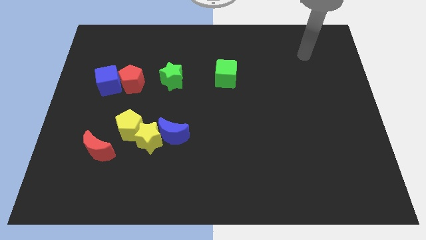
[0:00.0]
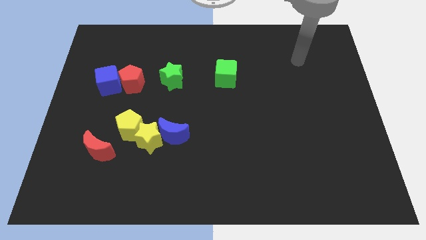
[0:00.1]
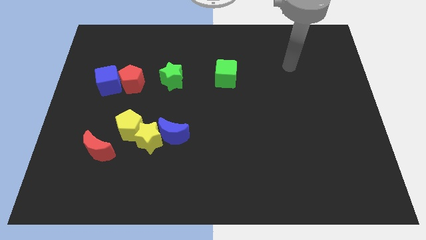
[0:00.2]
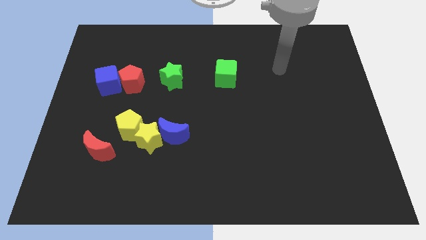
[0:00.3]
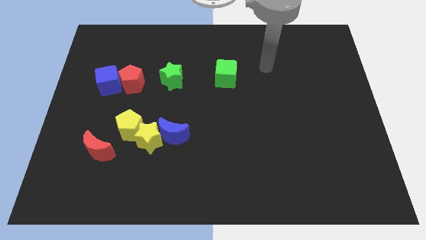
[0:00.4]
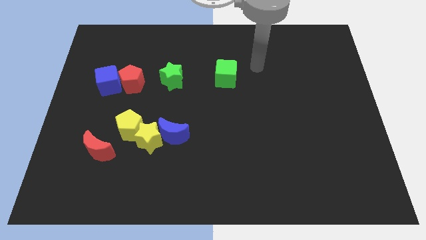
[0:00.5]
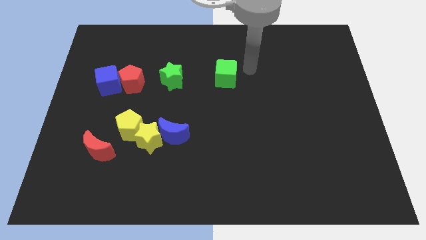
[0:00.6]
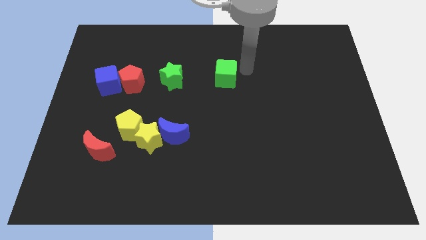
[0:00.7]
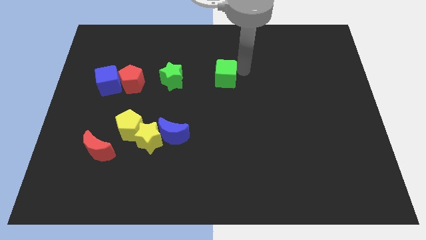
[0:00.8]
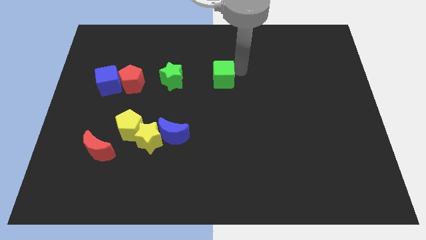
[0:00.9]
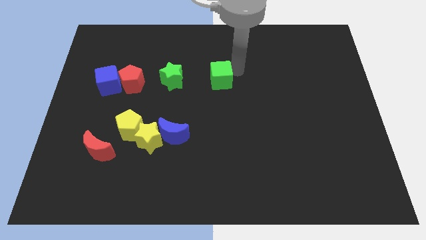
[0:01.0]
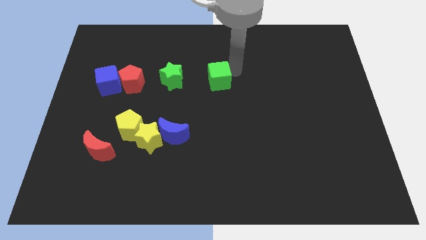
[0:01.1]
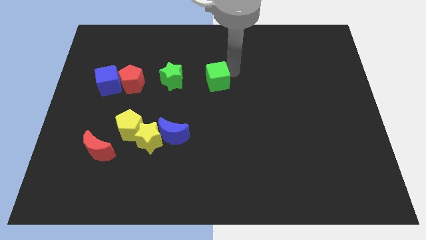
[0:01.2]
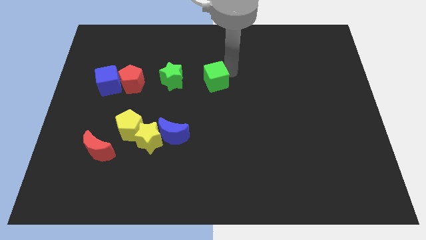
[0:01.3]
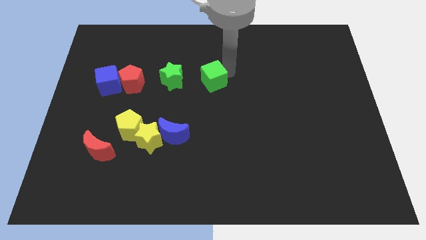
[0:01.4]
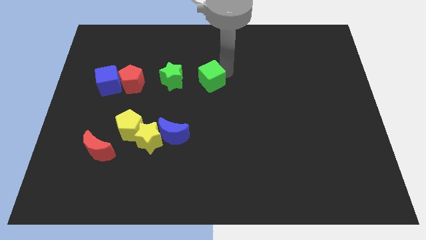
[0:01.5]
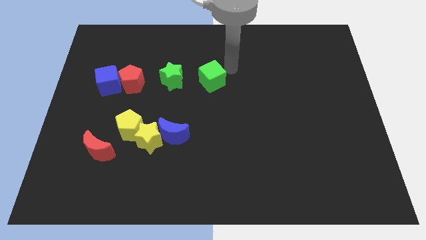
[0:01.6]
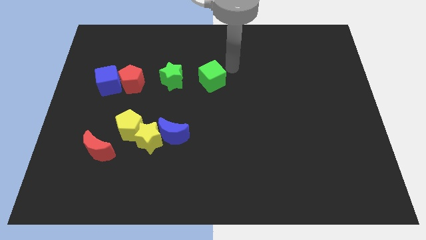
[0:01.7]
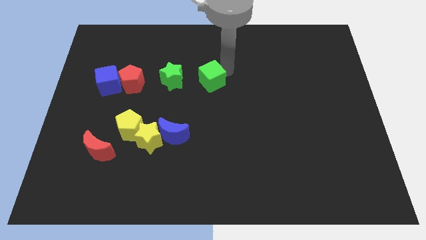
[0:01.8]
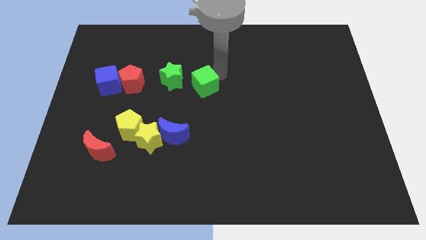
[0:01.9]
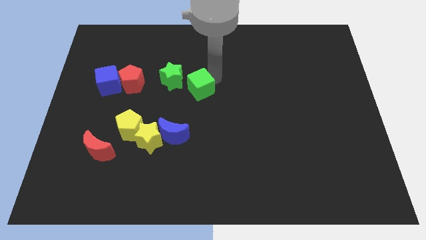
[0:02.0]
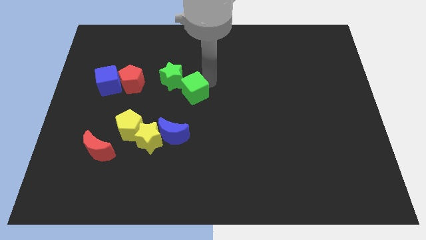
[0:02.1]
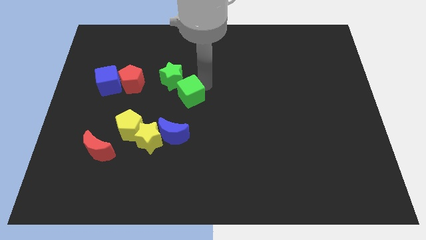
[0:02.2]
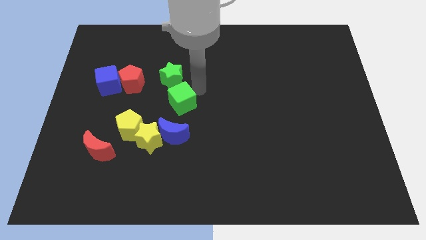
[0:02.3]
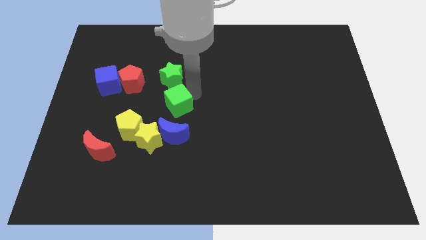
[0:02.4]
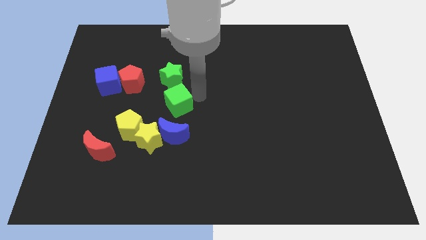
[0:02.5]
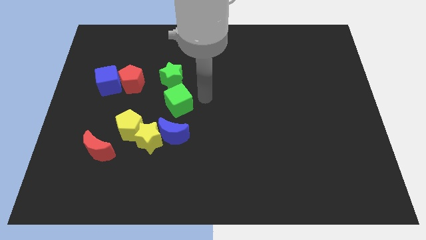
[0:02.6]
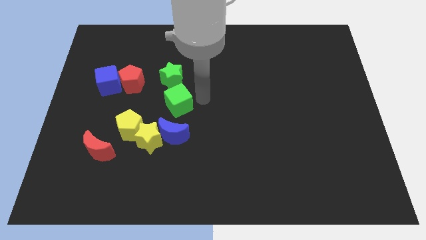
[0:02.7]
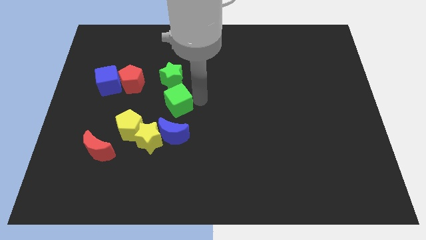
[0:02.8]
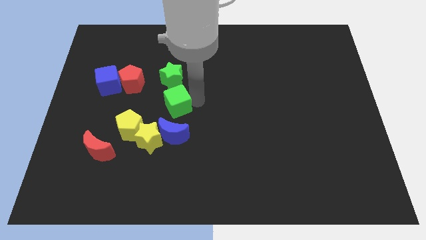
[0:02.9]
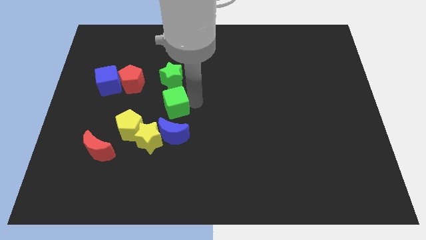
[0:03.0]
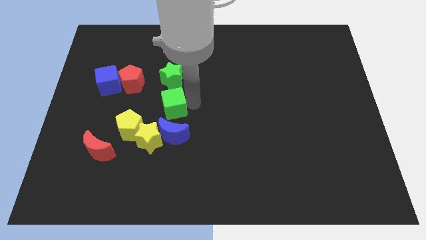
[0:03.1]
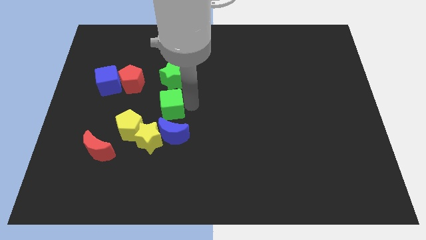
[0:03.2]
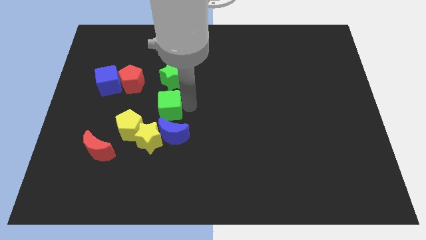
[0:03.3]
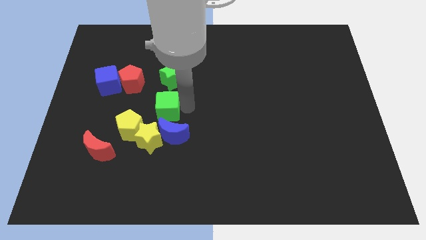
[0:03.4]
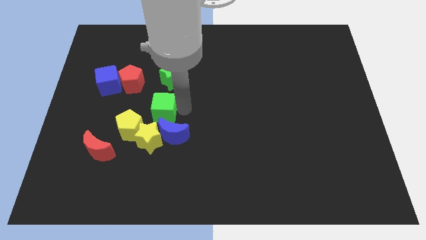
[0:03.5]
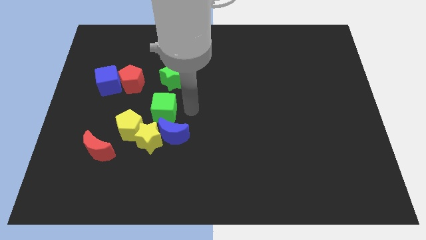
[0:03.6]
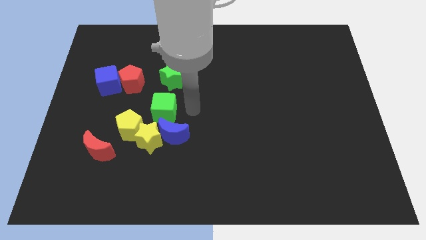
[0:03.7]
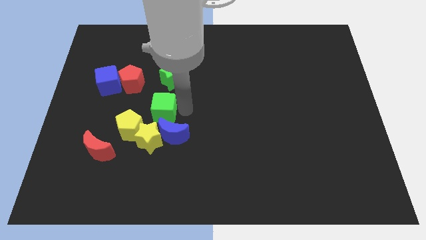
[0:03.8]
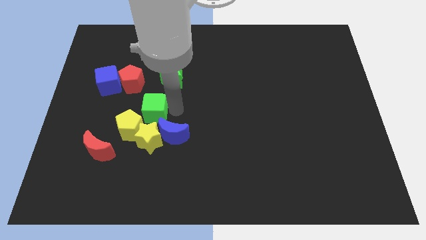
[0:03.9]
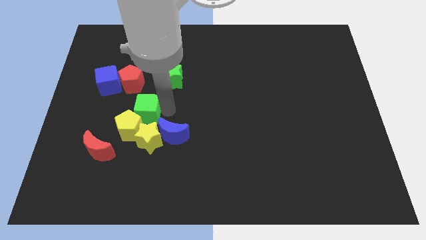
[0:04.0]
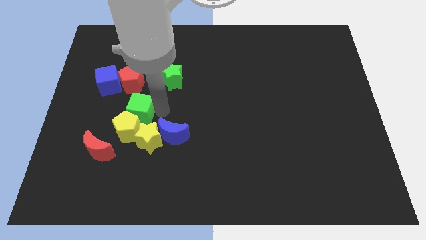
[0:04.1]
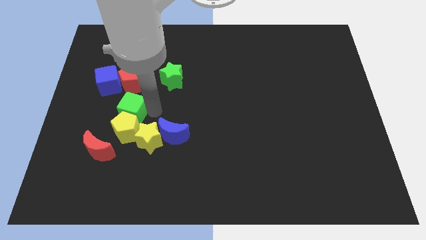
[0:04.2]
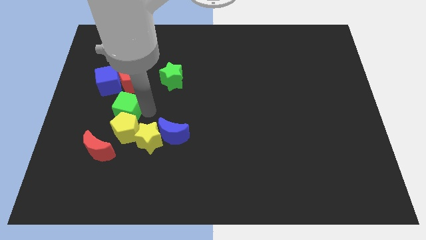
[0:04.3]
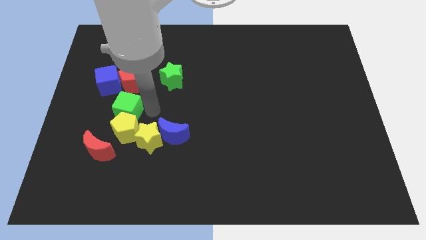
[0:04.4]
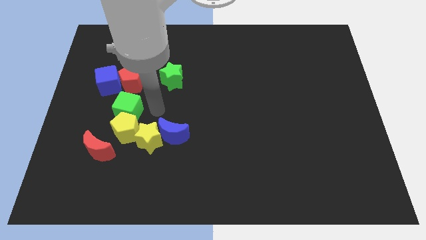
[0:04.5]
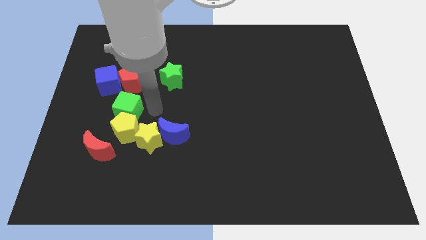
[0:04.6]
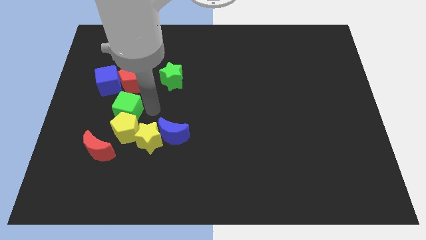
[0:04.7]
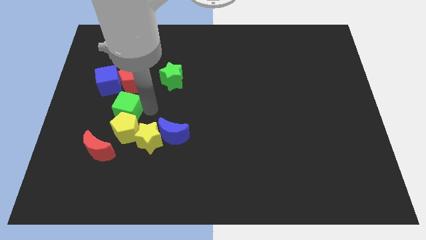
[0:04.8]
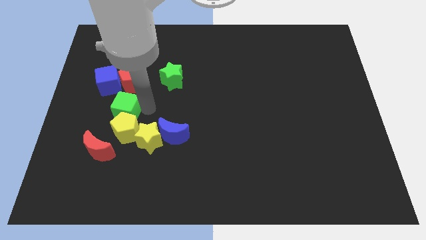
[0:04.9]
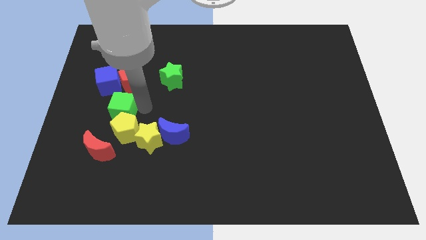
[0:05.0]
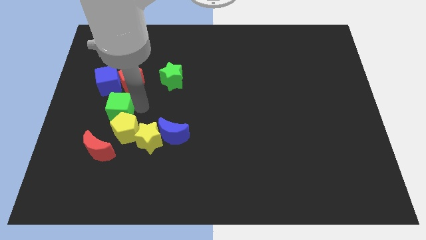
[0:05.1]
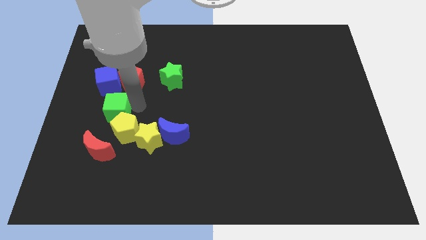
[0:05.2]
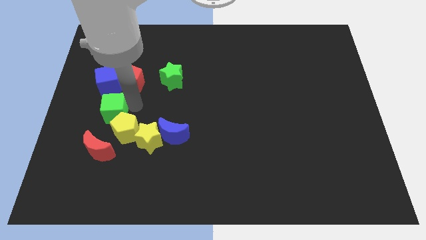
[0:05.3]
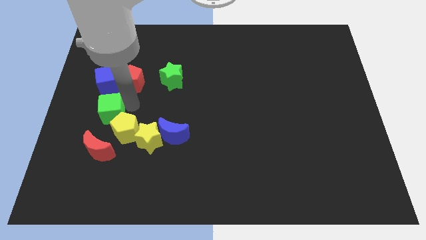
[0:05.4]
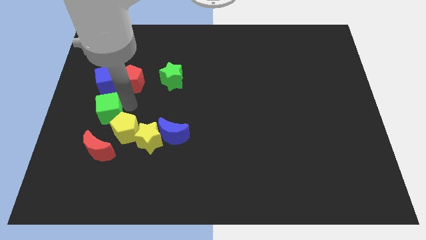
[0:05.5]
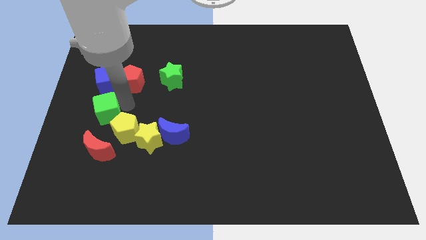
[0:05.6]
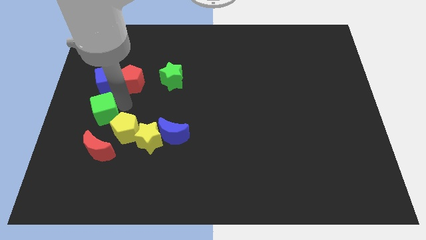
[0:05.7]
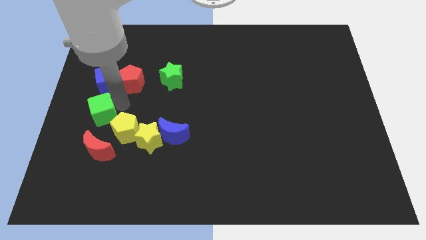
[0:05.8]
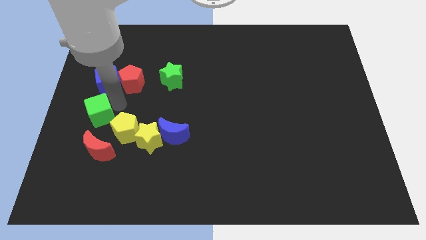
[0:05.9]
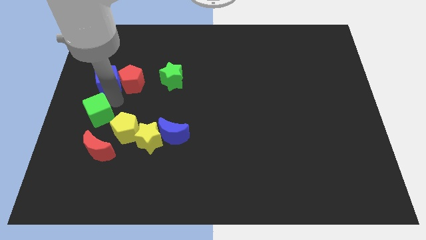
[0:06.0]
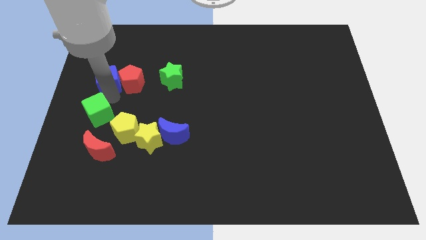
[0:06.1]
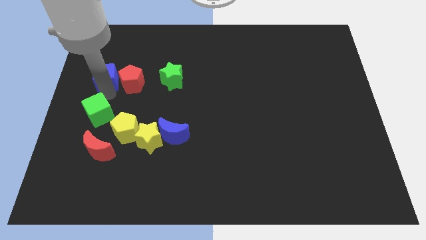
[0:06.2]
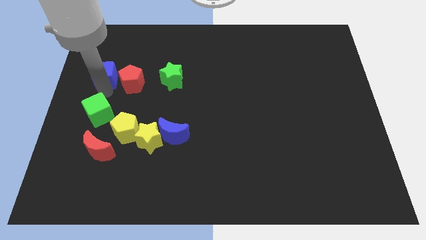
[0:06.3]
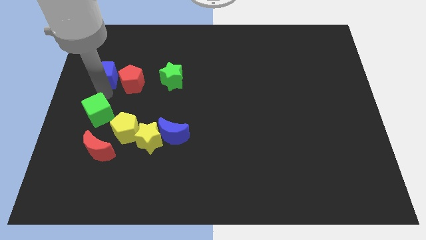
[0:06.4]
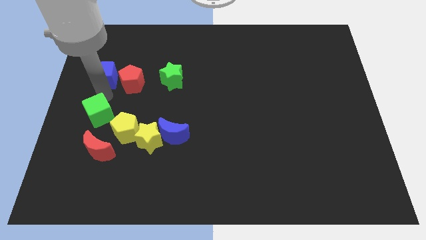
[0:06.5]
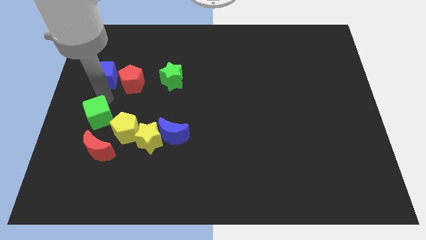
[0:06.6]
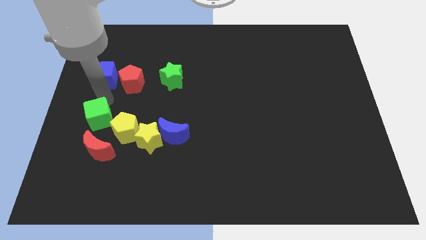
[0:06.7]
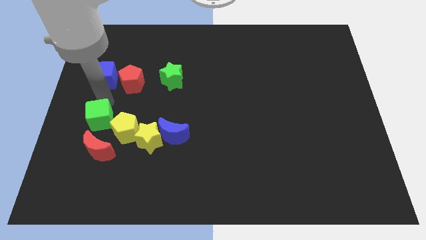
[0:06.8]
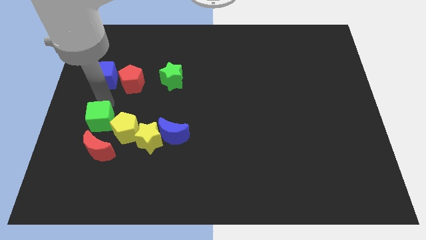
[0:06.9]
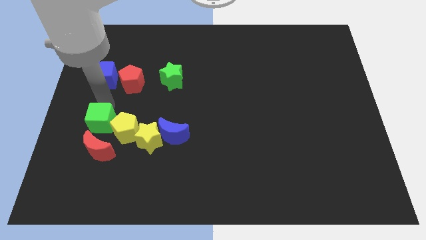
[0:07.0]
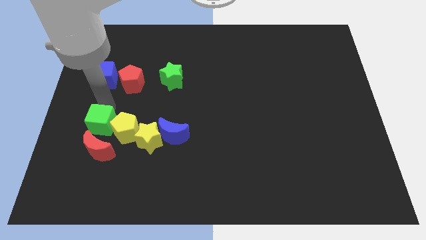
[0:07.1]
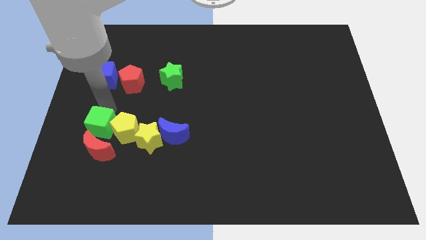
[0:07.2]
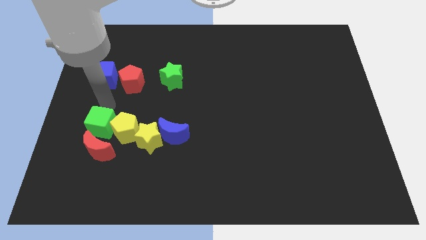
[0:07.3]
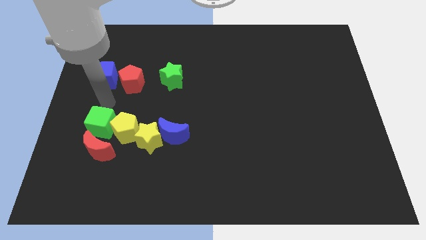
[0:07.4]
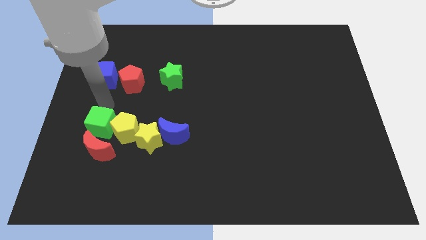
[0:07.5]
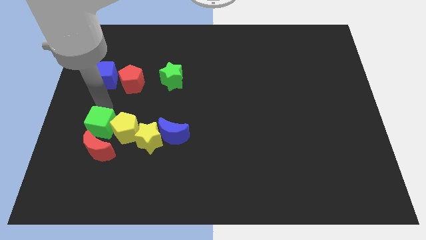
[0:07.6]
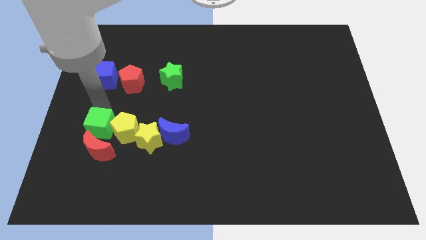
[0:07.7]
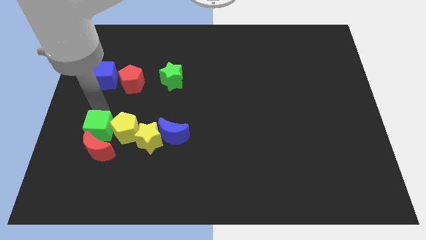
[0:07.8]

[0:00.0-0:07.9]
push the green cube close to the red moon
